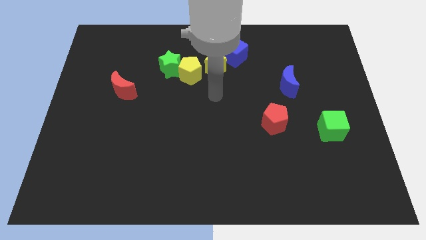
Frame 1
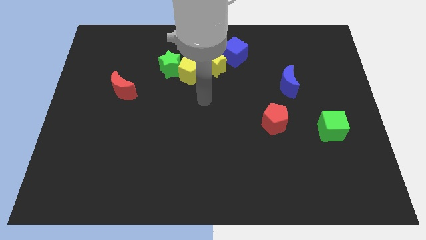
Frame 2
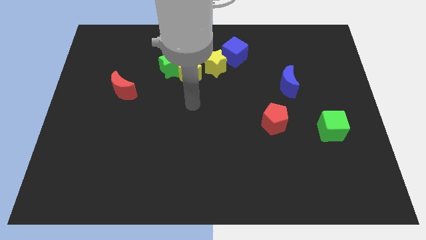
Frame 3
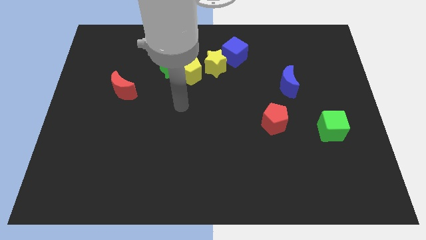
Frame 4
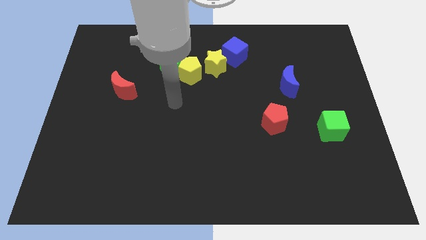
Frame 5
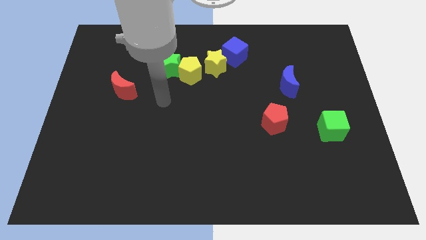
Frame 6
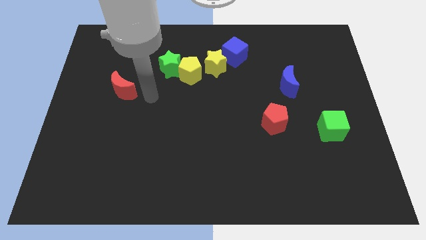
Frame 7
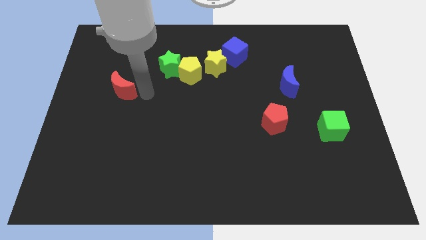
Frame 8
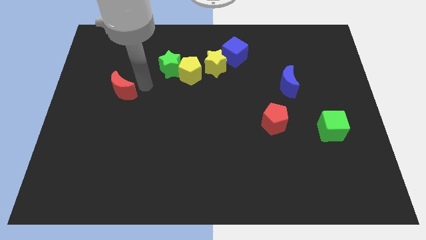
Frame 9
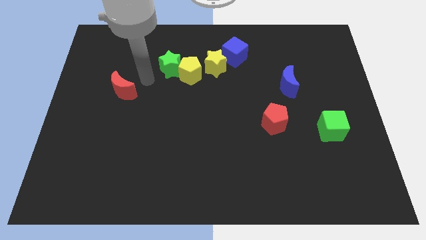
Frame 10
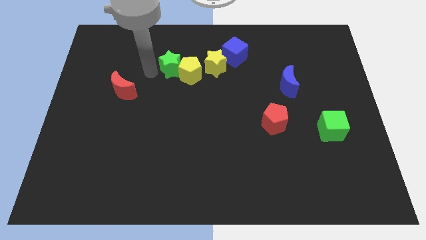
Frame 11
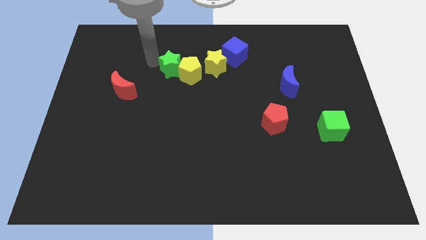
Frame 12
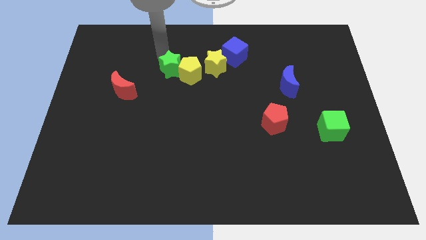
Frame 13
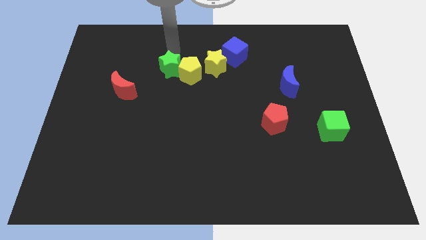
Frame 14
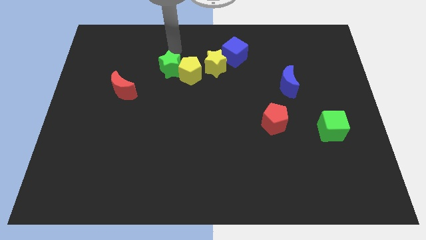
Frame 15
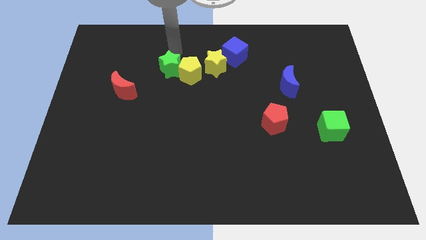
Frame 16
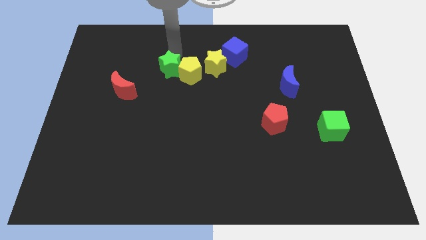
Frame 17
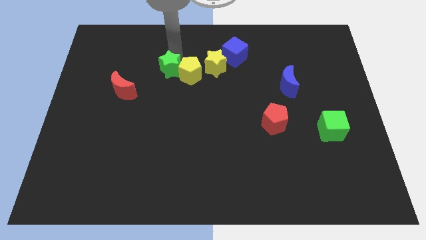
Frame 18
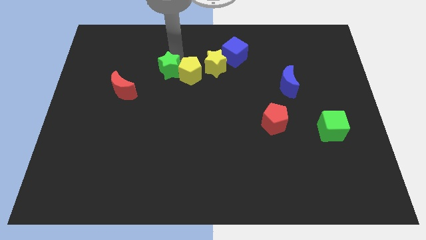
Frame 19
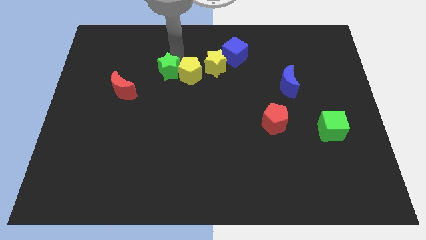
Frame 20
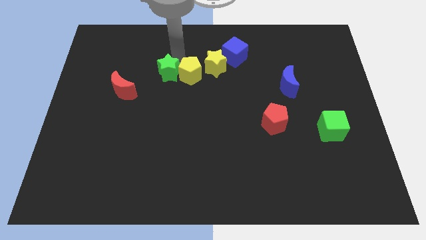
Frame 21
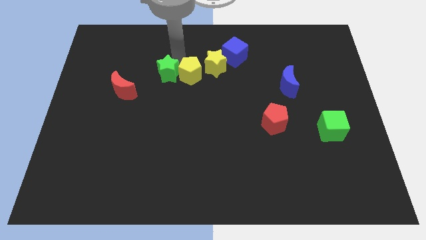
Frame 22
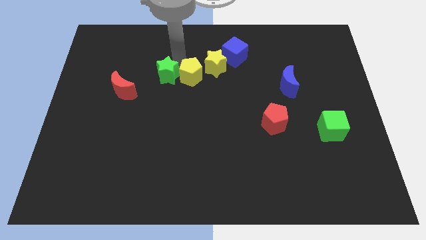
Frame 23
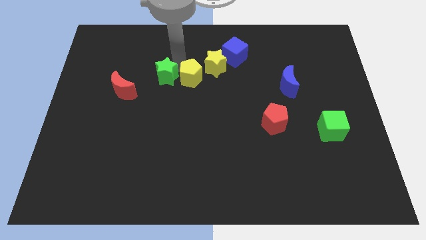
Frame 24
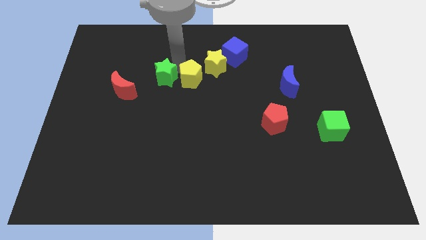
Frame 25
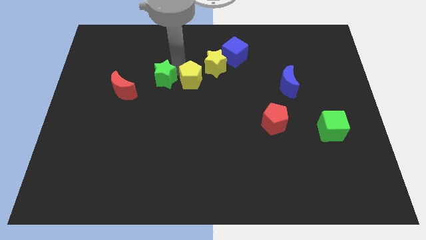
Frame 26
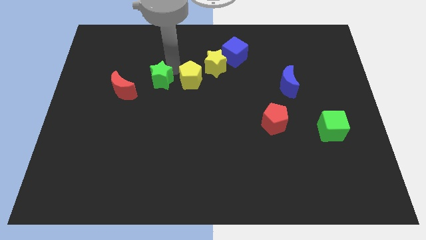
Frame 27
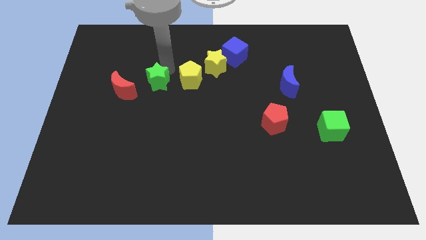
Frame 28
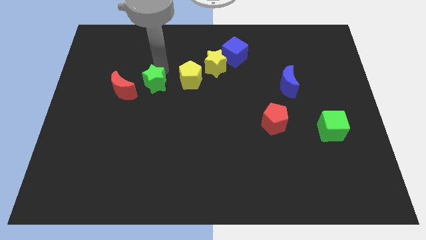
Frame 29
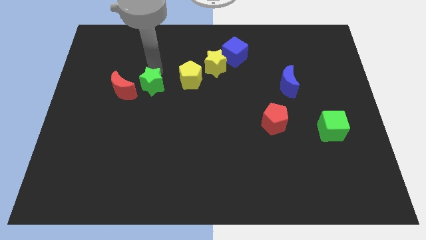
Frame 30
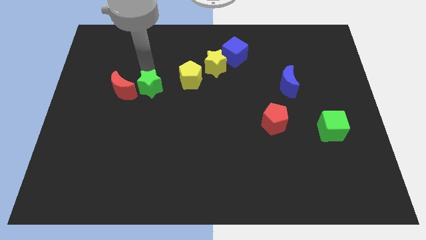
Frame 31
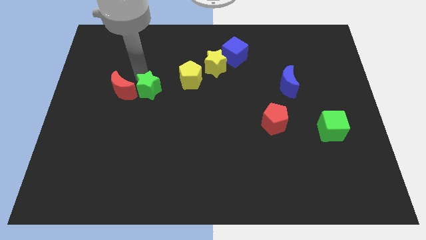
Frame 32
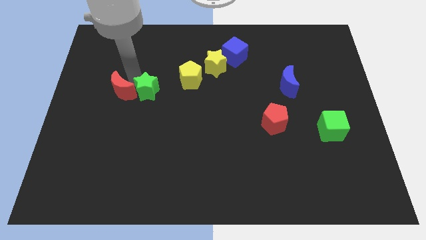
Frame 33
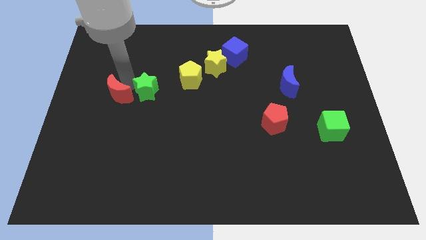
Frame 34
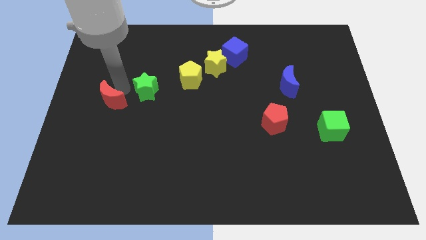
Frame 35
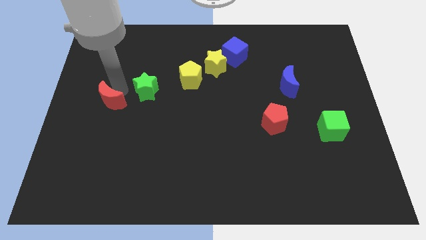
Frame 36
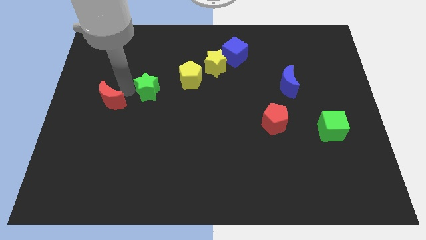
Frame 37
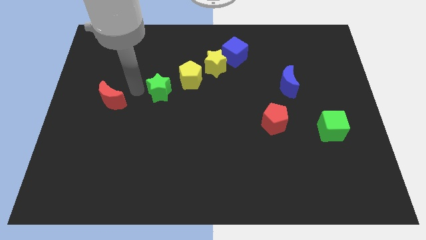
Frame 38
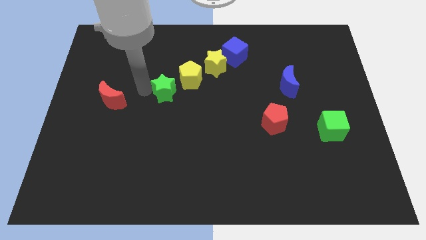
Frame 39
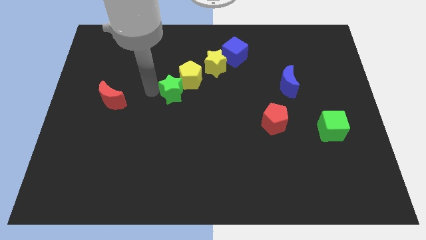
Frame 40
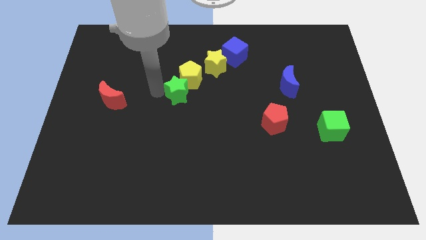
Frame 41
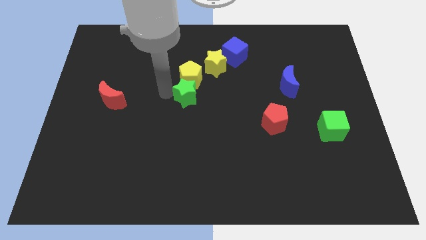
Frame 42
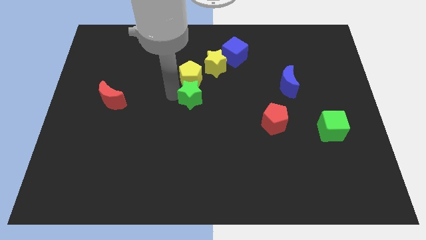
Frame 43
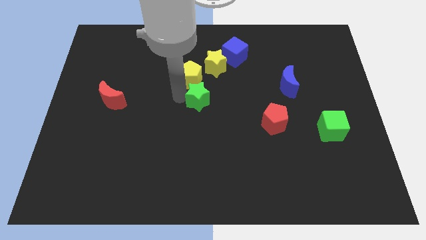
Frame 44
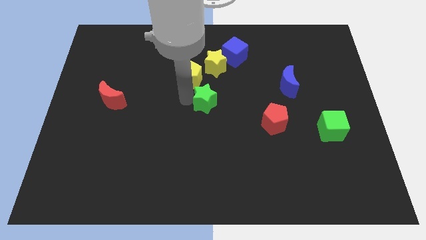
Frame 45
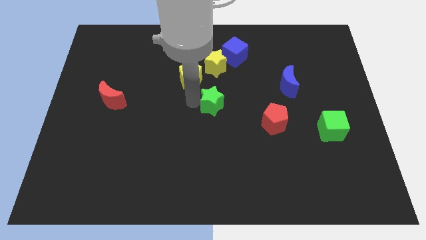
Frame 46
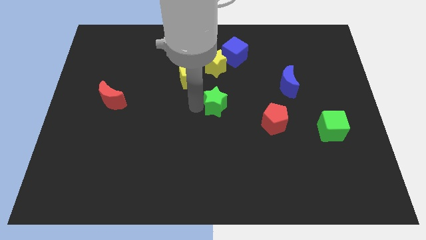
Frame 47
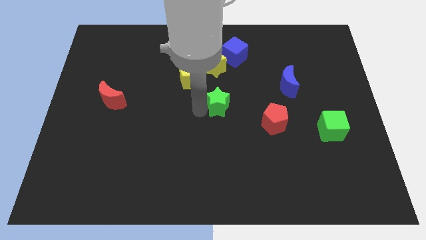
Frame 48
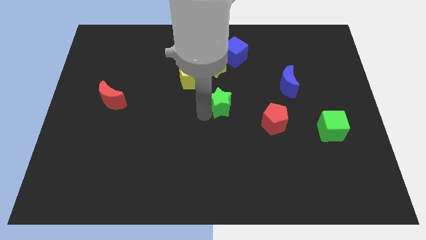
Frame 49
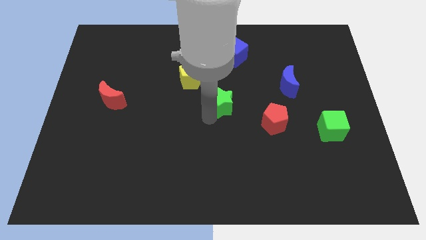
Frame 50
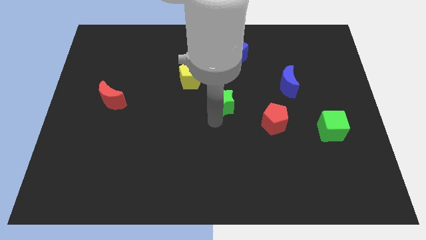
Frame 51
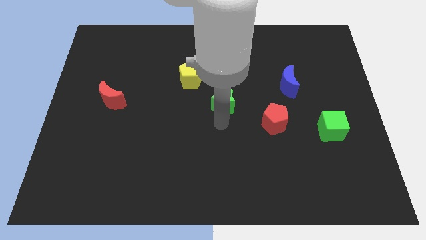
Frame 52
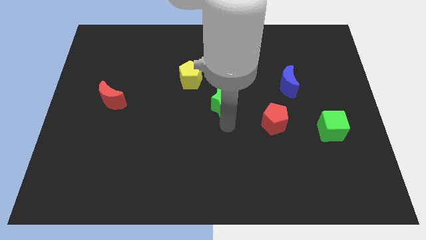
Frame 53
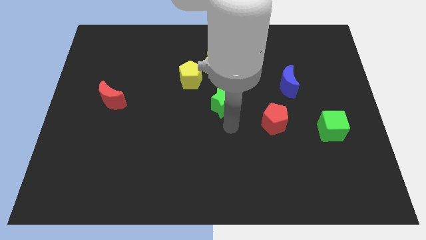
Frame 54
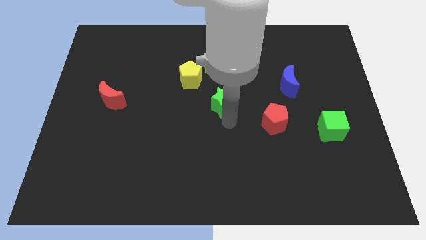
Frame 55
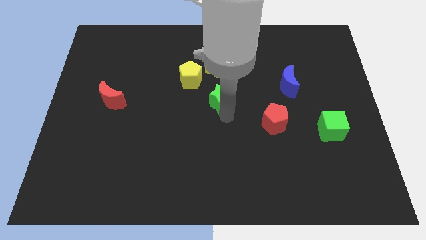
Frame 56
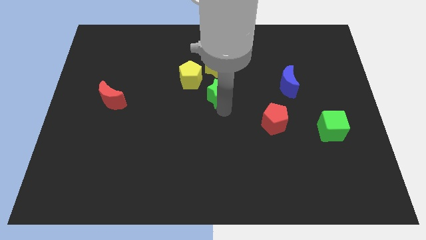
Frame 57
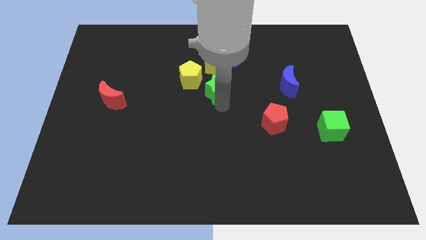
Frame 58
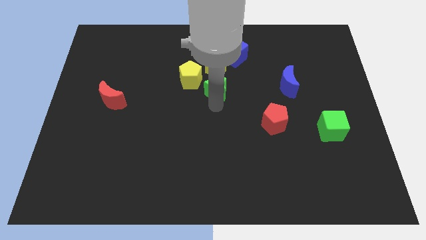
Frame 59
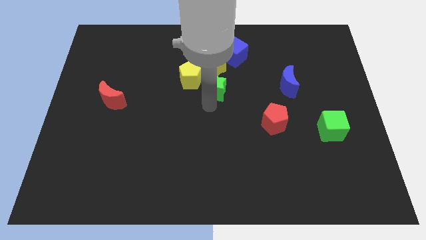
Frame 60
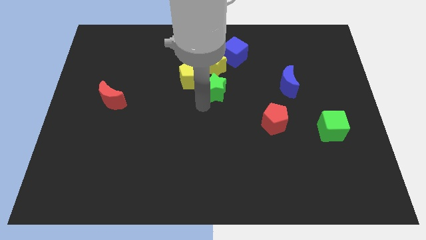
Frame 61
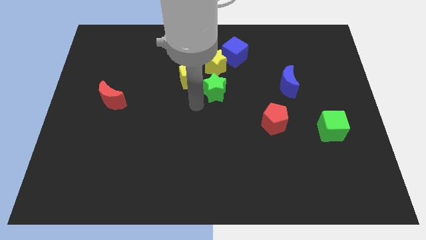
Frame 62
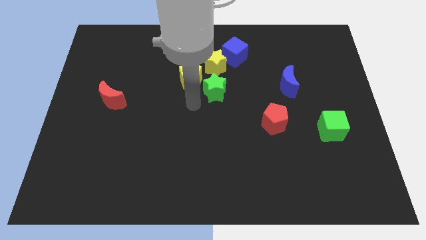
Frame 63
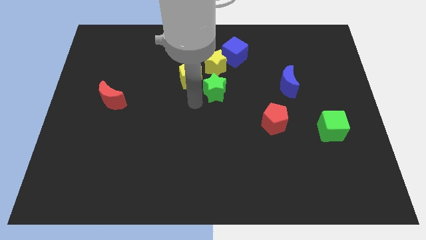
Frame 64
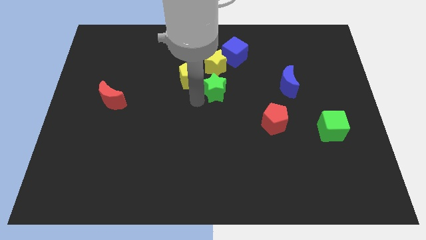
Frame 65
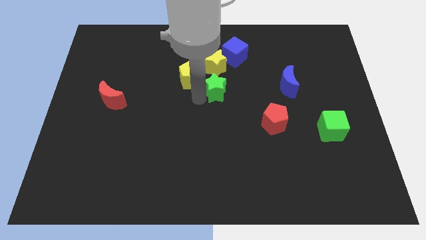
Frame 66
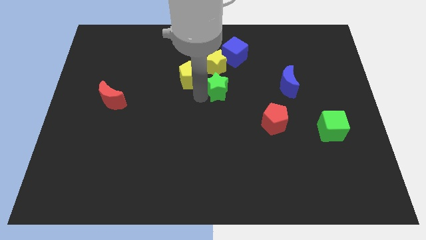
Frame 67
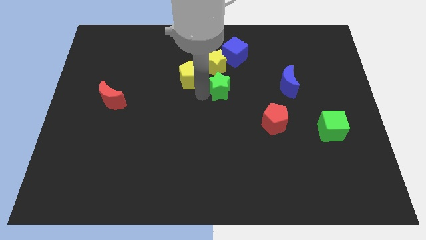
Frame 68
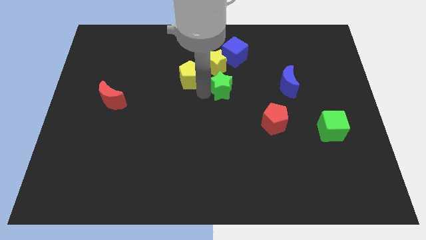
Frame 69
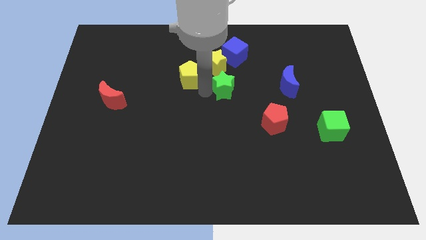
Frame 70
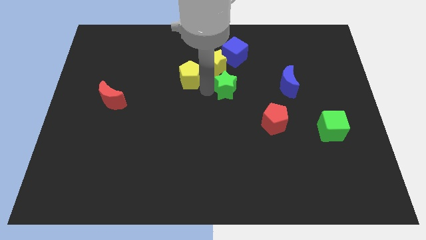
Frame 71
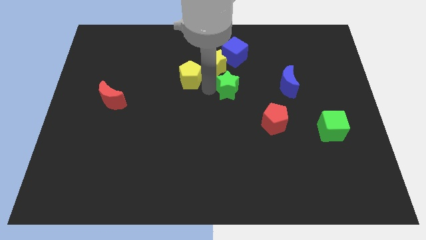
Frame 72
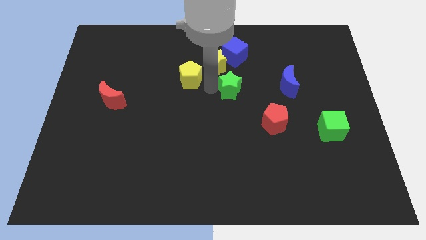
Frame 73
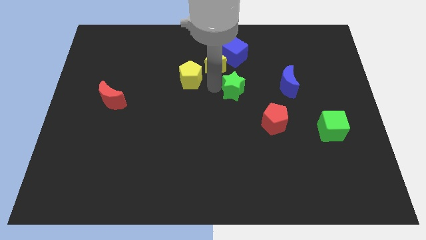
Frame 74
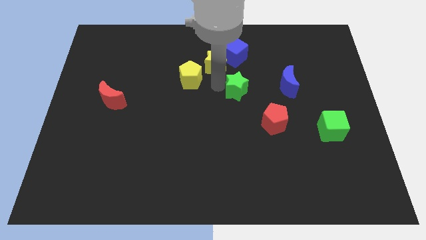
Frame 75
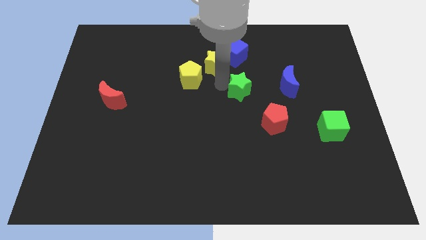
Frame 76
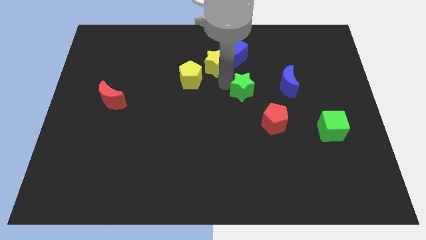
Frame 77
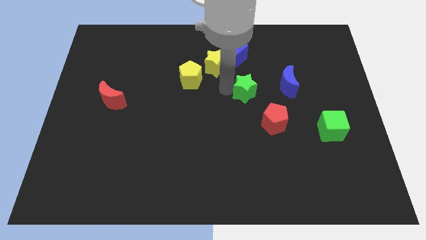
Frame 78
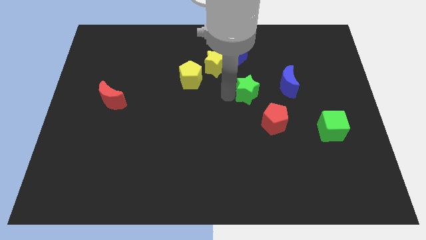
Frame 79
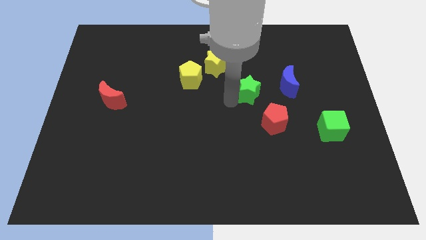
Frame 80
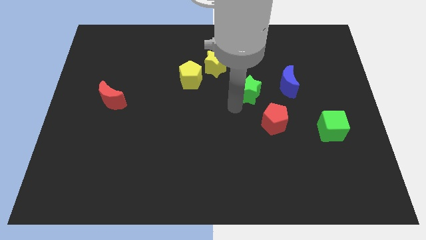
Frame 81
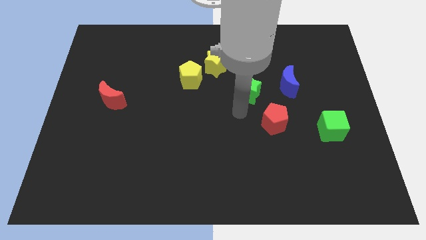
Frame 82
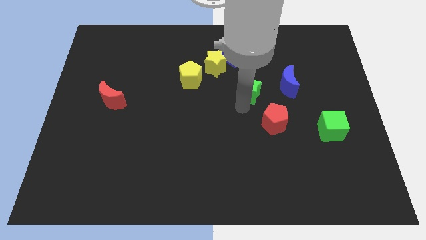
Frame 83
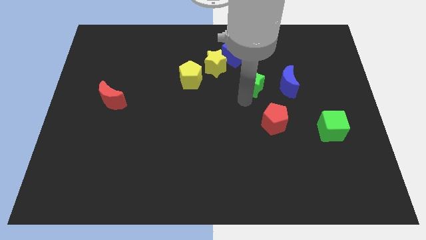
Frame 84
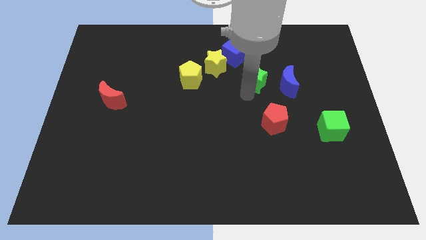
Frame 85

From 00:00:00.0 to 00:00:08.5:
push the green star diagonally down and to the right of the blue cube
